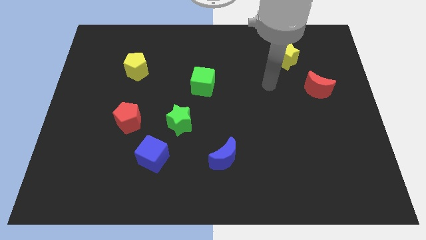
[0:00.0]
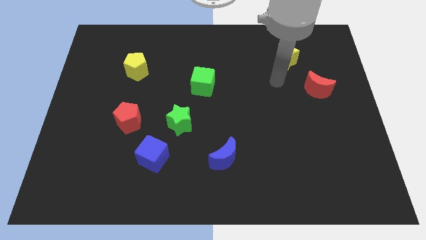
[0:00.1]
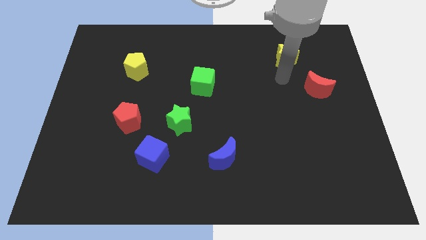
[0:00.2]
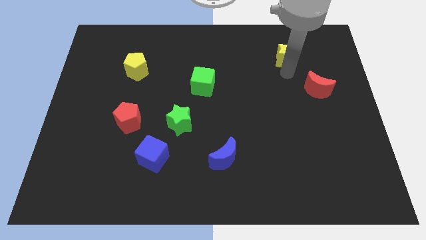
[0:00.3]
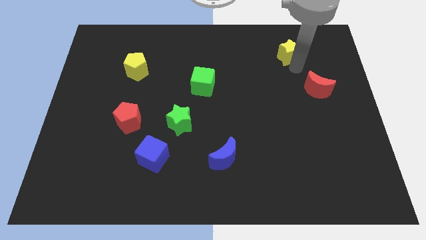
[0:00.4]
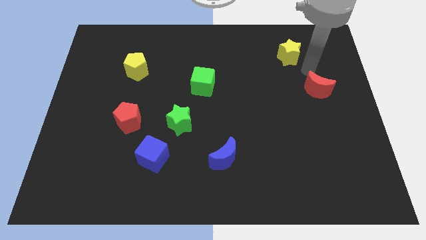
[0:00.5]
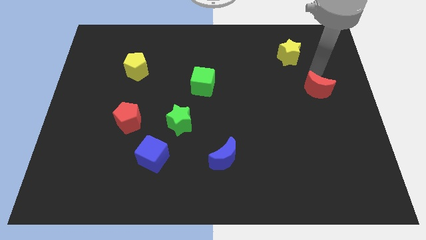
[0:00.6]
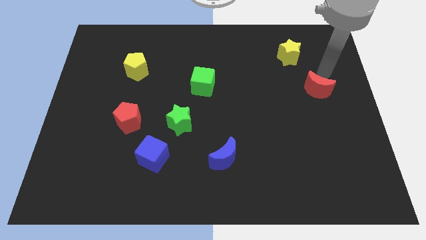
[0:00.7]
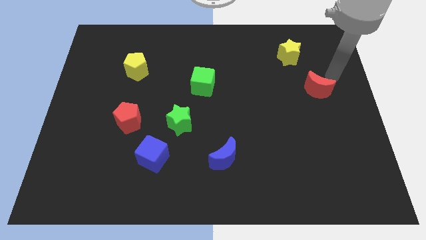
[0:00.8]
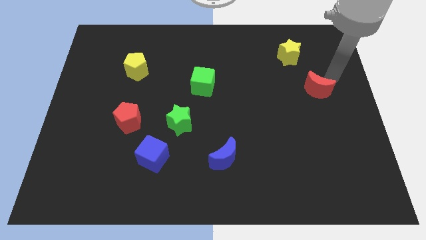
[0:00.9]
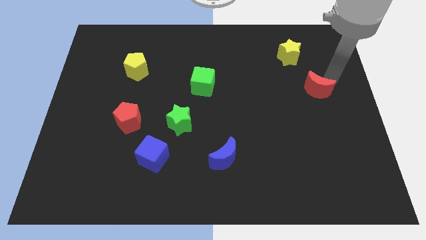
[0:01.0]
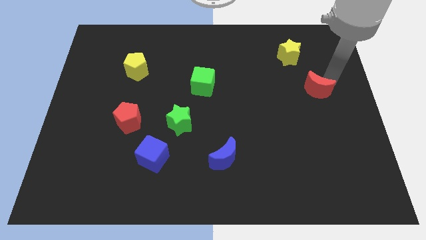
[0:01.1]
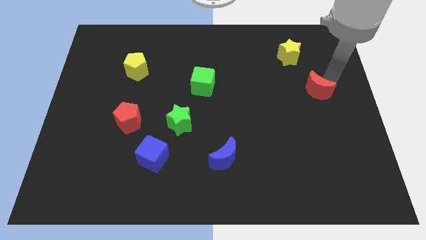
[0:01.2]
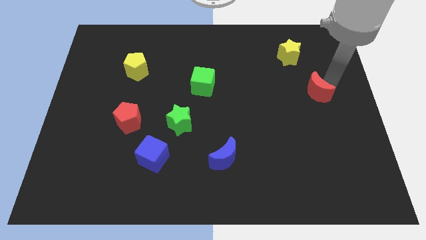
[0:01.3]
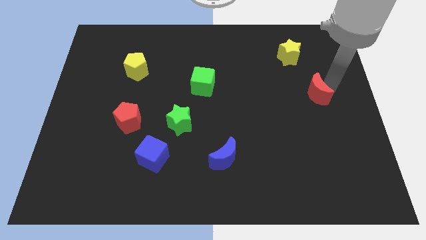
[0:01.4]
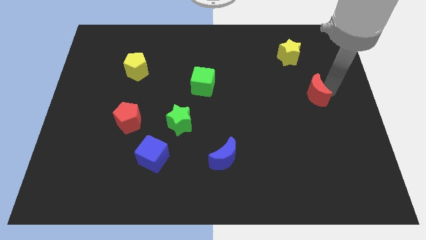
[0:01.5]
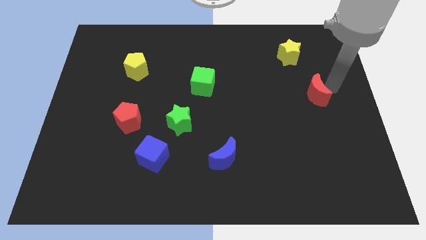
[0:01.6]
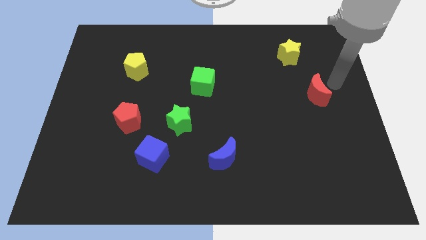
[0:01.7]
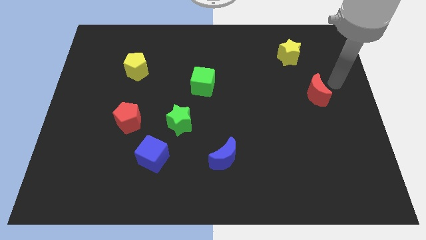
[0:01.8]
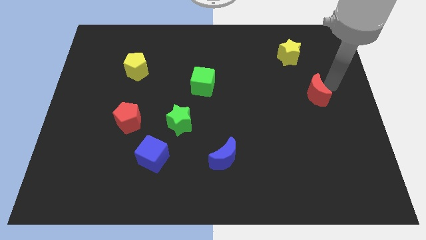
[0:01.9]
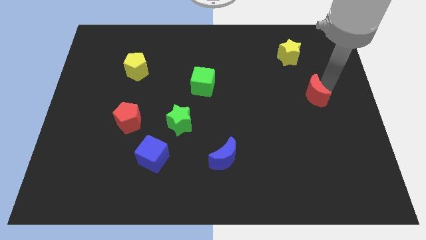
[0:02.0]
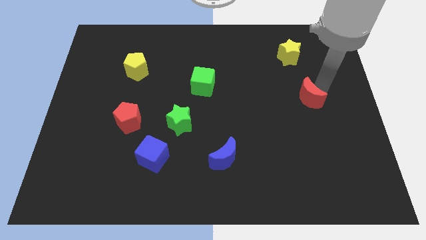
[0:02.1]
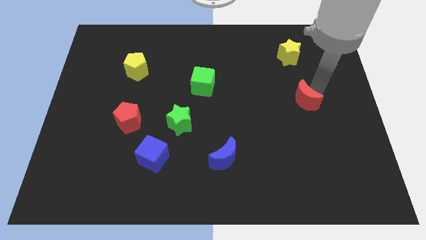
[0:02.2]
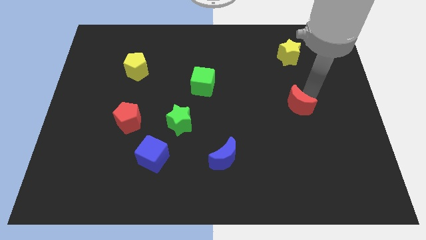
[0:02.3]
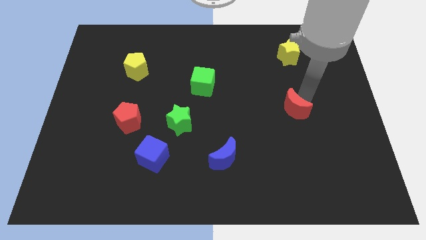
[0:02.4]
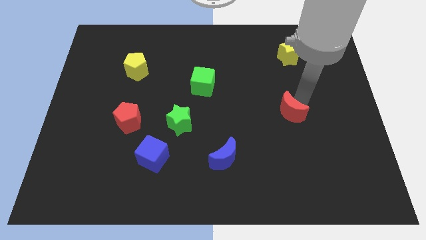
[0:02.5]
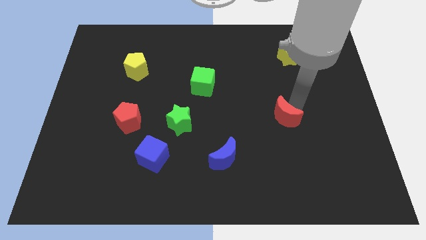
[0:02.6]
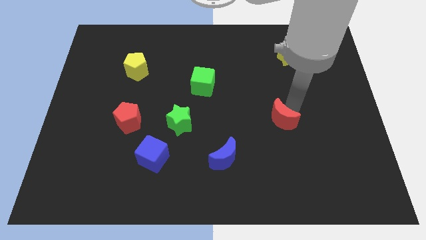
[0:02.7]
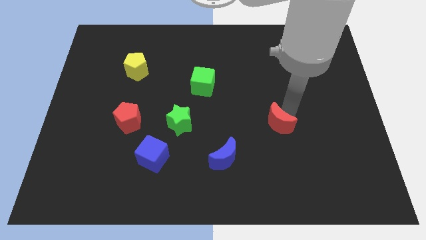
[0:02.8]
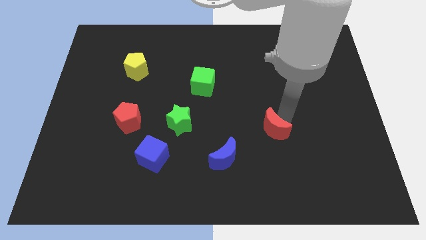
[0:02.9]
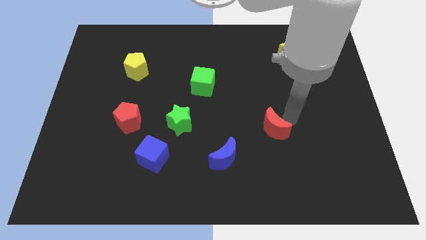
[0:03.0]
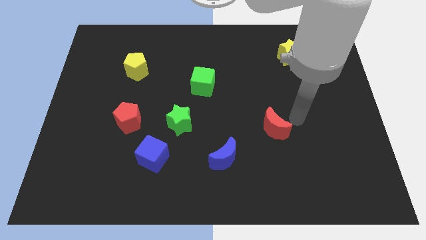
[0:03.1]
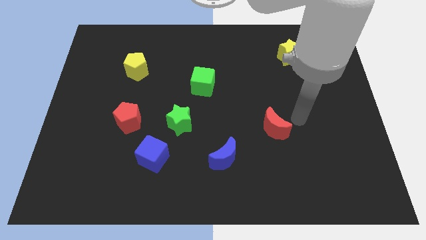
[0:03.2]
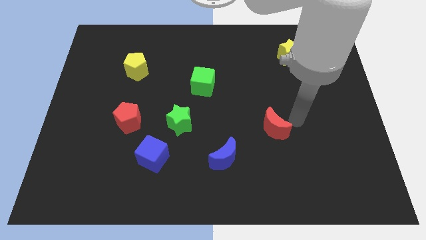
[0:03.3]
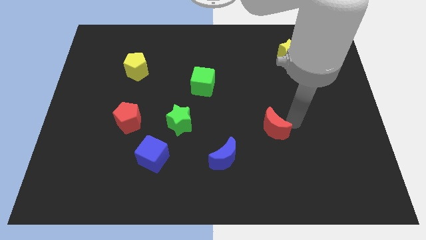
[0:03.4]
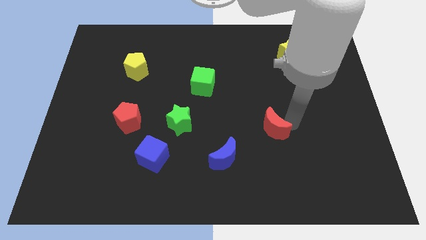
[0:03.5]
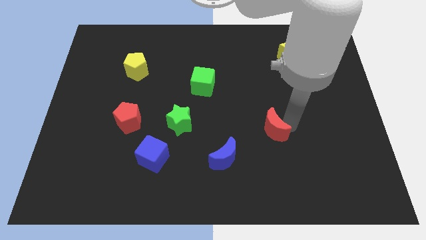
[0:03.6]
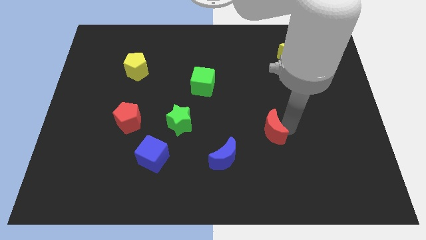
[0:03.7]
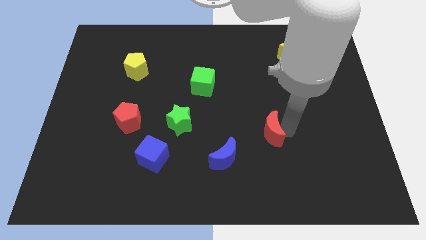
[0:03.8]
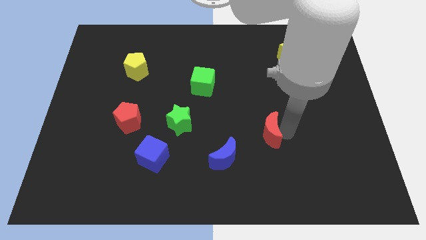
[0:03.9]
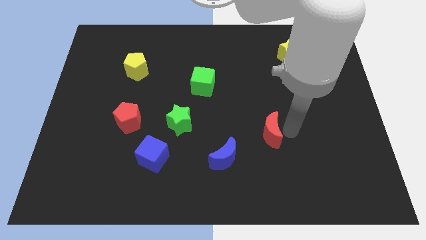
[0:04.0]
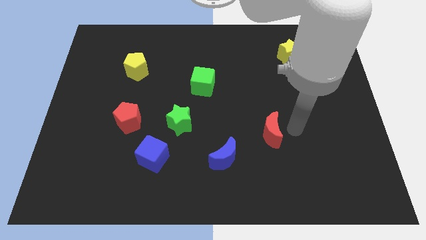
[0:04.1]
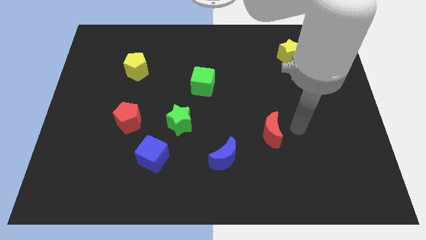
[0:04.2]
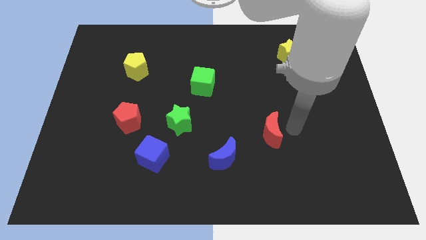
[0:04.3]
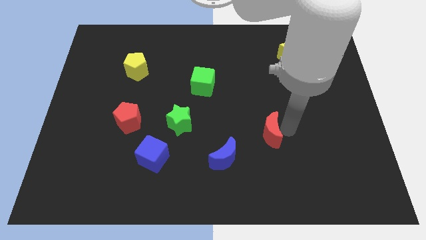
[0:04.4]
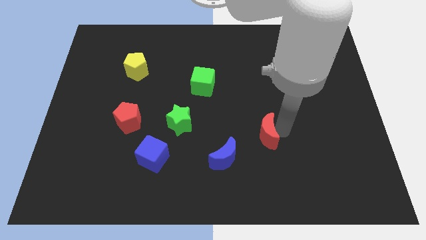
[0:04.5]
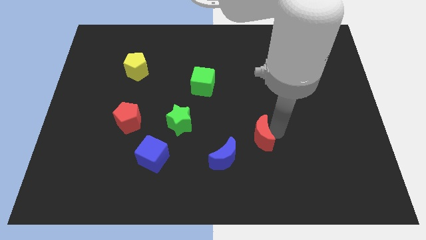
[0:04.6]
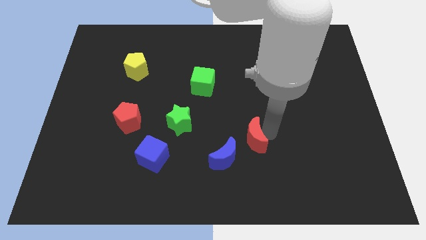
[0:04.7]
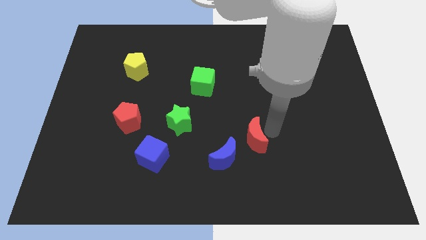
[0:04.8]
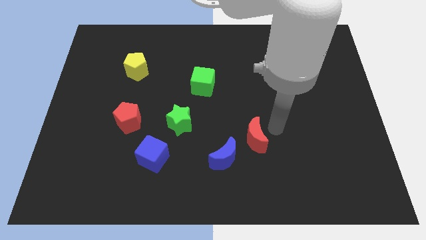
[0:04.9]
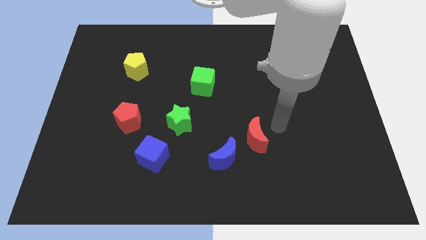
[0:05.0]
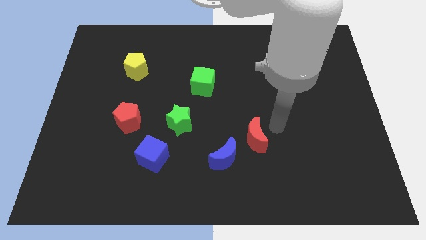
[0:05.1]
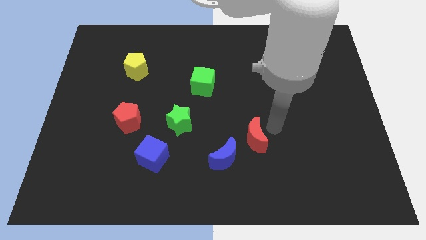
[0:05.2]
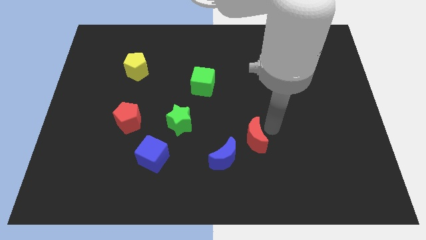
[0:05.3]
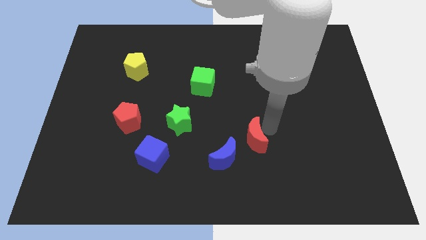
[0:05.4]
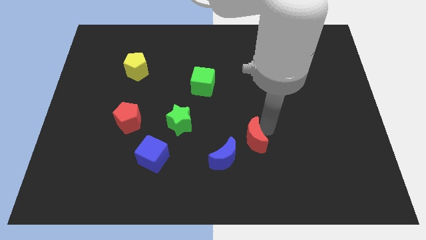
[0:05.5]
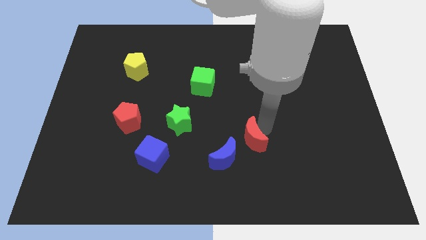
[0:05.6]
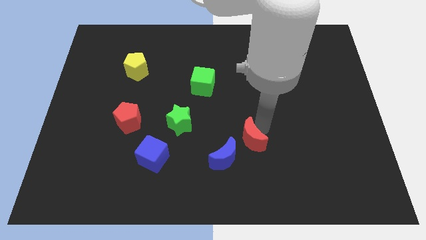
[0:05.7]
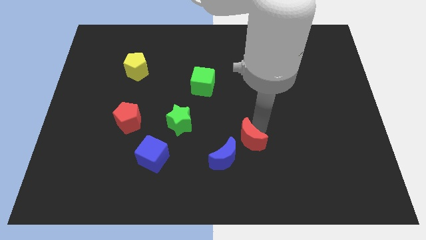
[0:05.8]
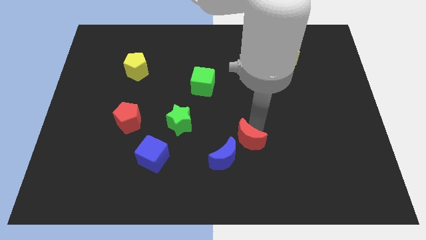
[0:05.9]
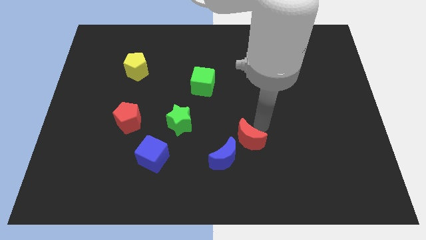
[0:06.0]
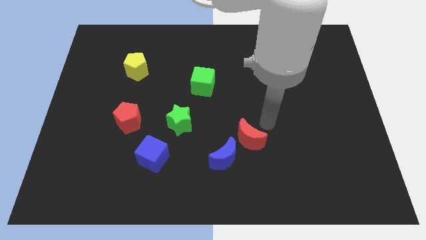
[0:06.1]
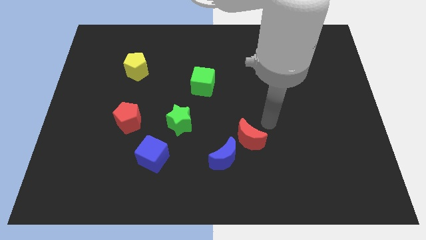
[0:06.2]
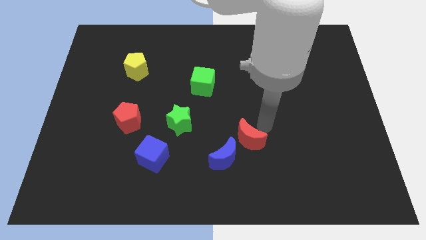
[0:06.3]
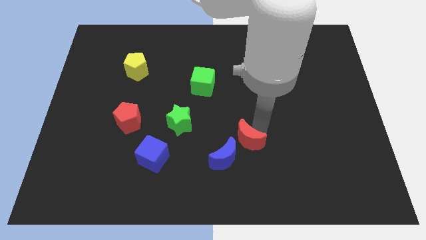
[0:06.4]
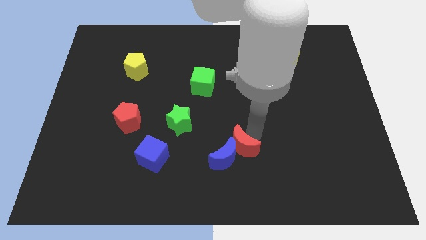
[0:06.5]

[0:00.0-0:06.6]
move the red moon to the blue moon
